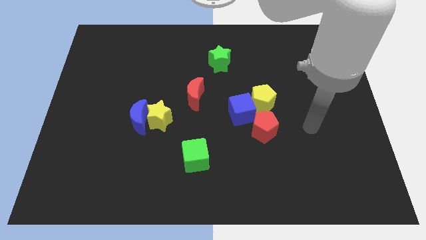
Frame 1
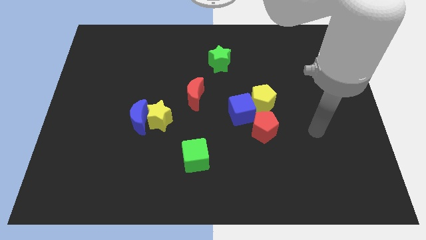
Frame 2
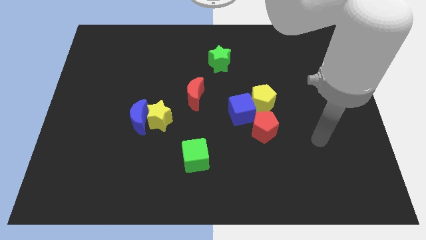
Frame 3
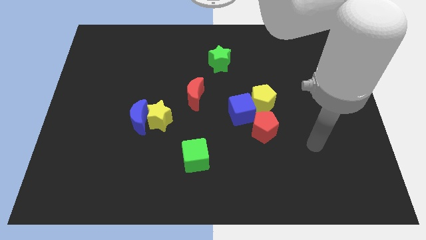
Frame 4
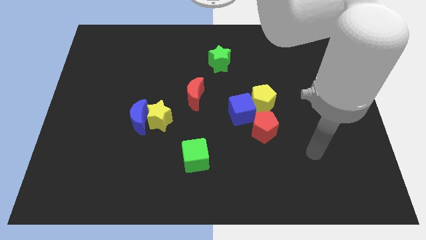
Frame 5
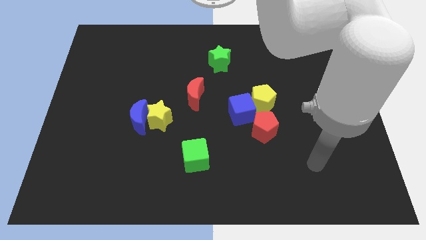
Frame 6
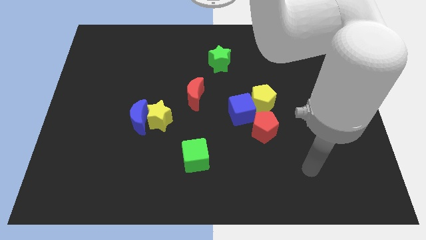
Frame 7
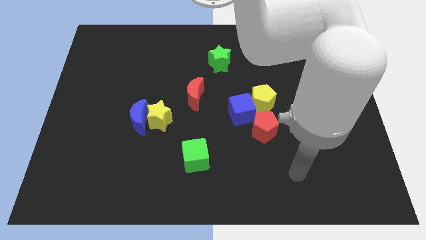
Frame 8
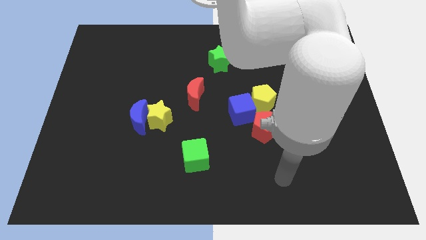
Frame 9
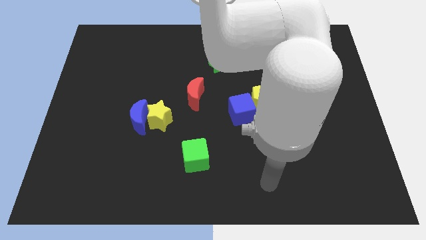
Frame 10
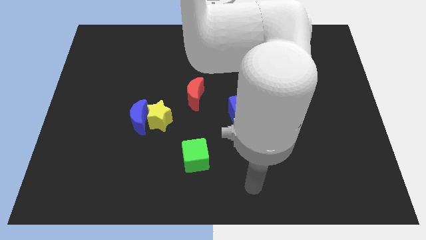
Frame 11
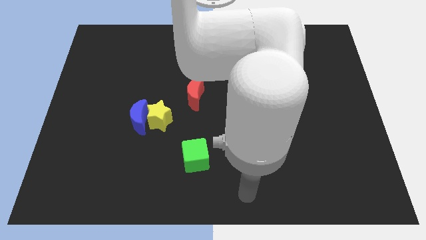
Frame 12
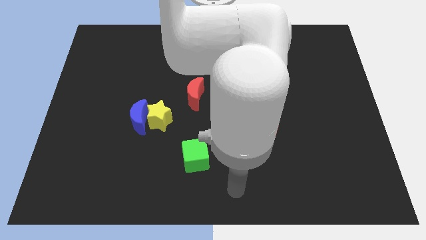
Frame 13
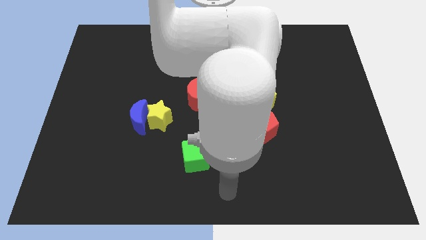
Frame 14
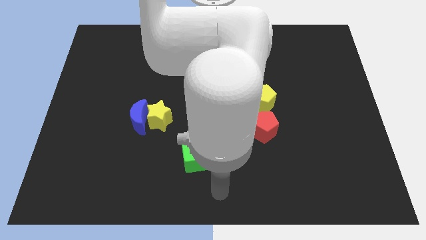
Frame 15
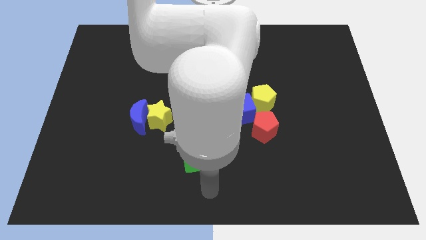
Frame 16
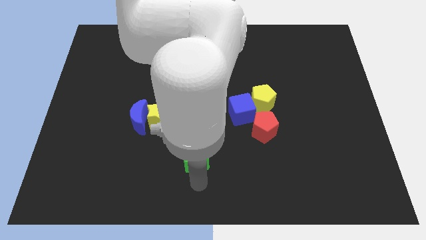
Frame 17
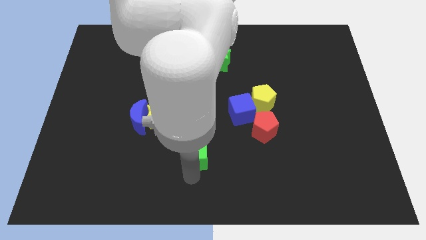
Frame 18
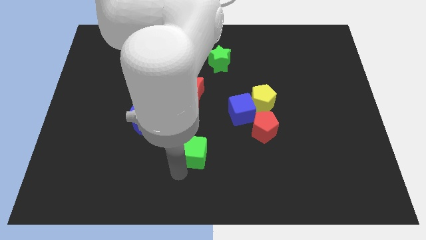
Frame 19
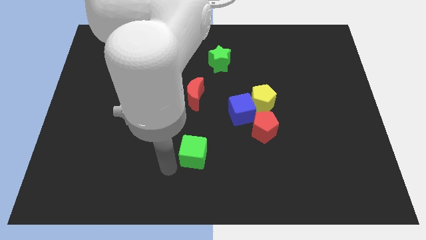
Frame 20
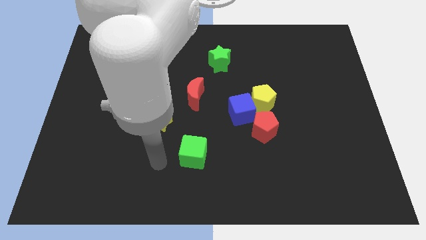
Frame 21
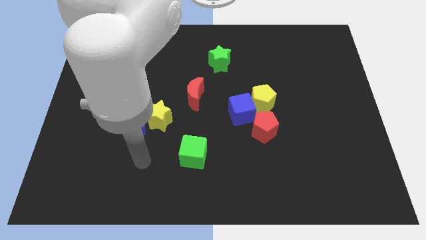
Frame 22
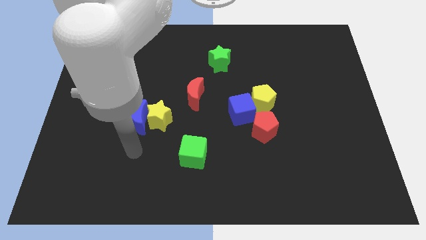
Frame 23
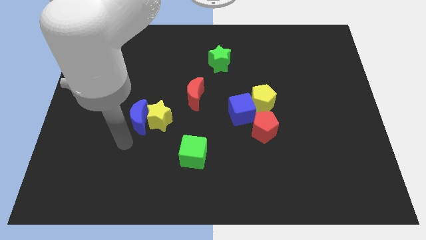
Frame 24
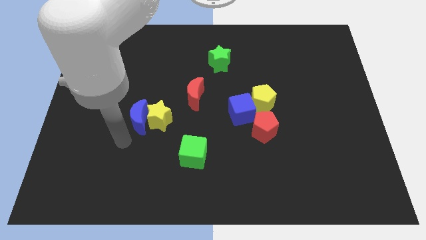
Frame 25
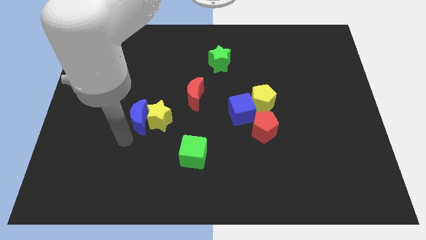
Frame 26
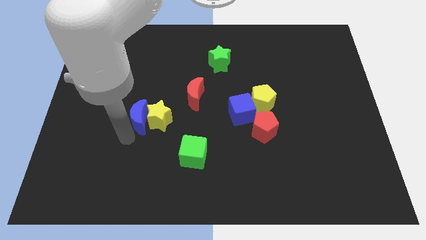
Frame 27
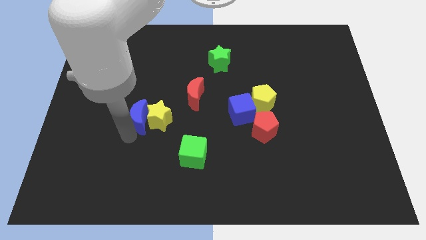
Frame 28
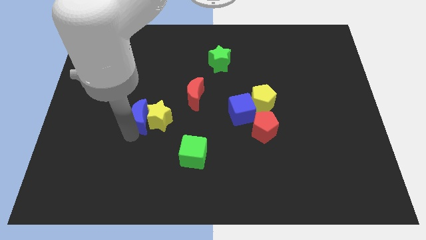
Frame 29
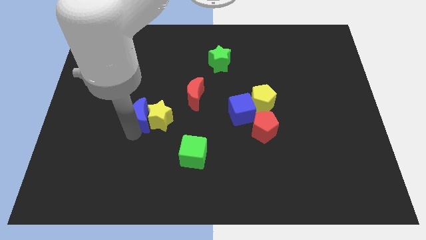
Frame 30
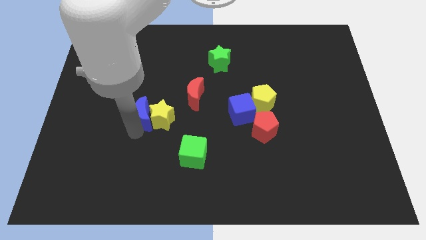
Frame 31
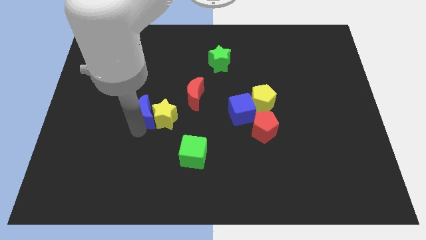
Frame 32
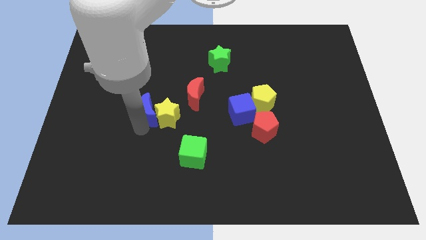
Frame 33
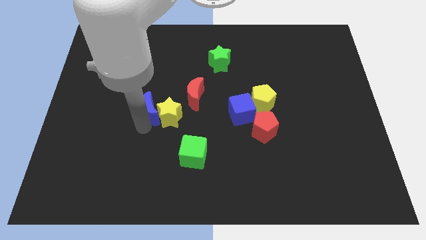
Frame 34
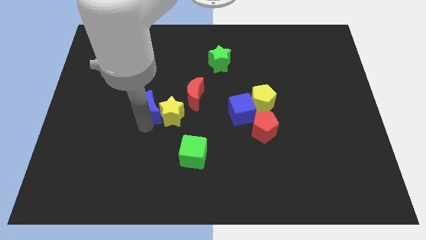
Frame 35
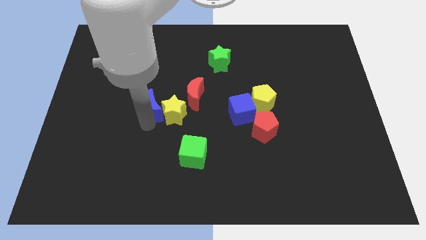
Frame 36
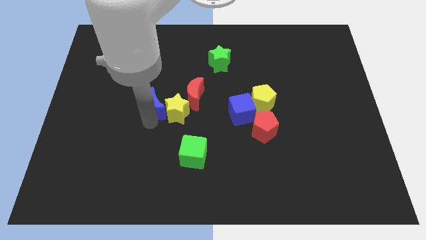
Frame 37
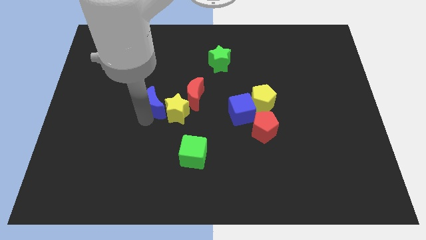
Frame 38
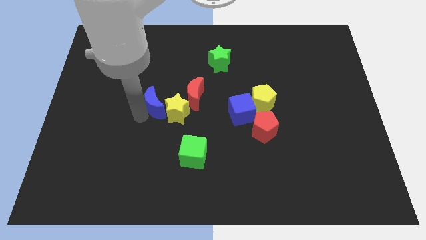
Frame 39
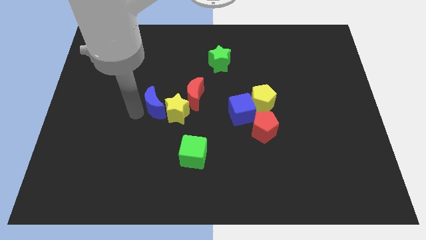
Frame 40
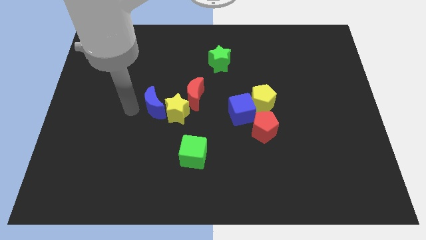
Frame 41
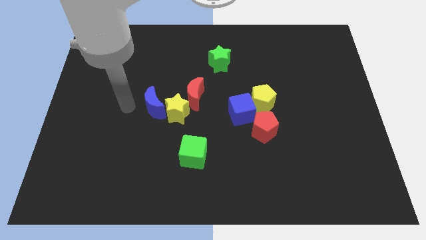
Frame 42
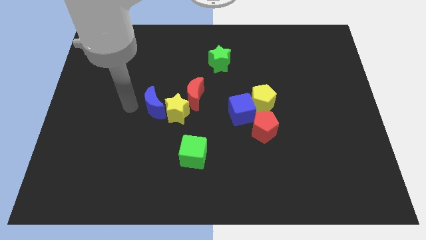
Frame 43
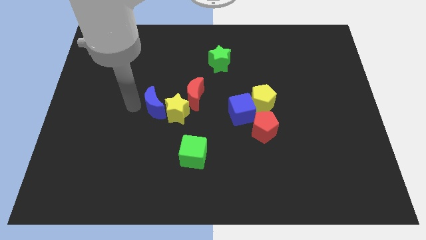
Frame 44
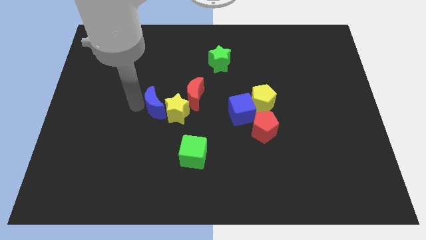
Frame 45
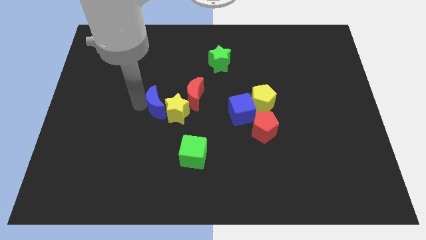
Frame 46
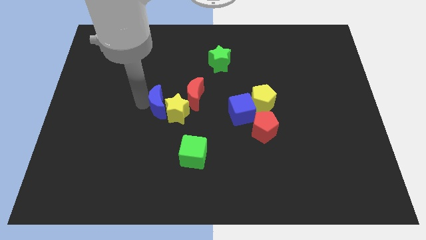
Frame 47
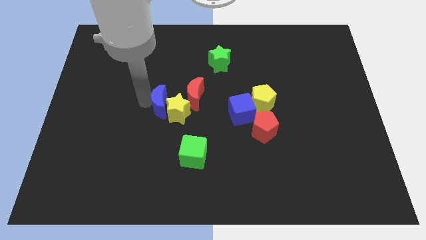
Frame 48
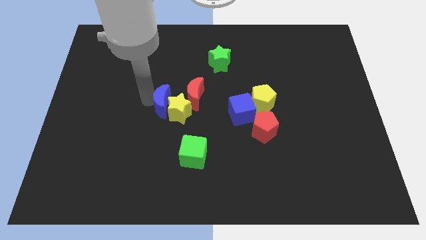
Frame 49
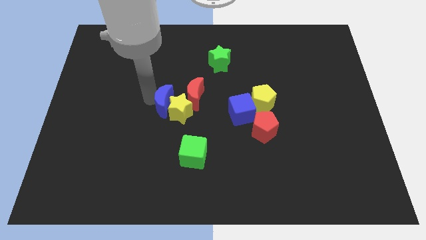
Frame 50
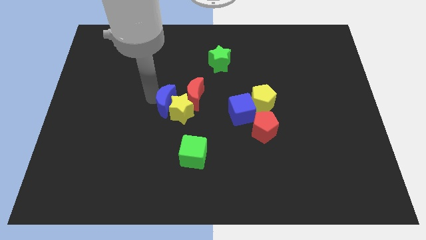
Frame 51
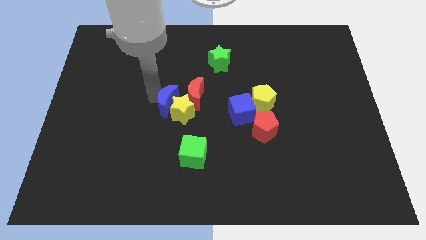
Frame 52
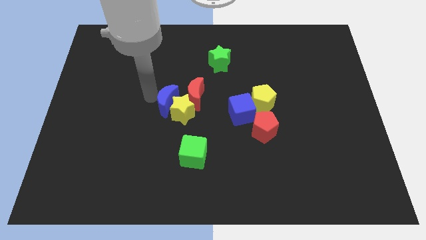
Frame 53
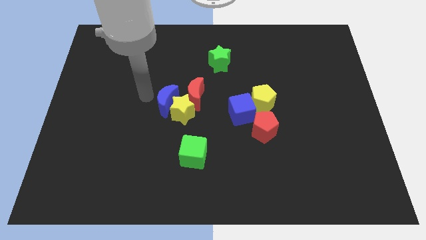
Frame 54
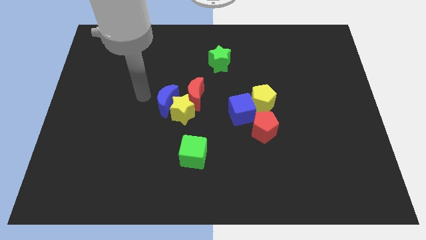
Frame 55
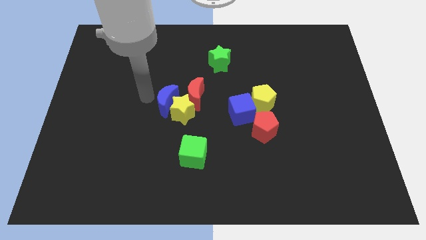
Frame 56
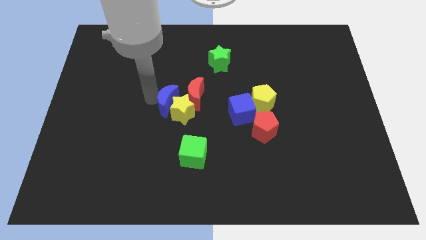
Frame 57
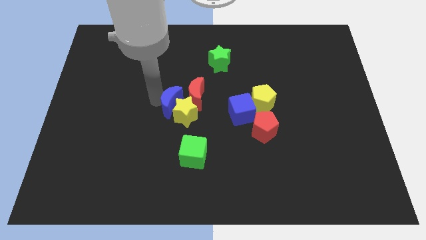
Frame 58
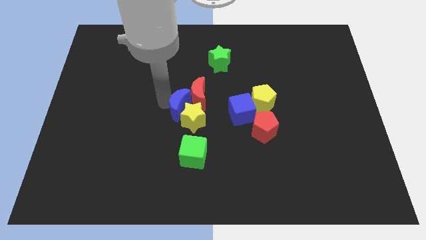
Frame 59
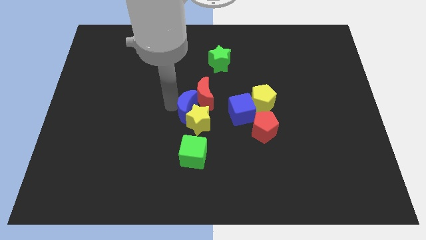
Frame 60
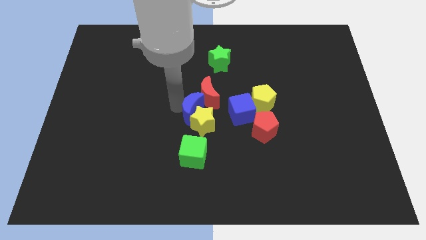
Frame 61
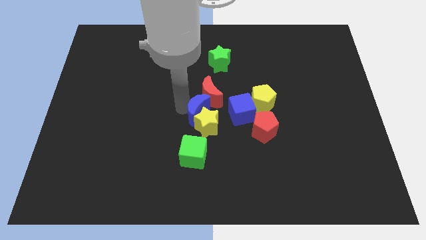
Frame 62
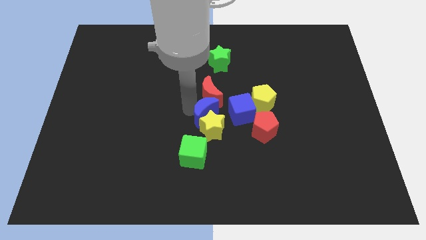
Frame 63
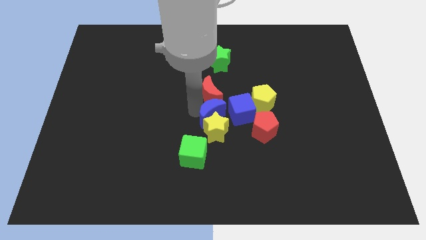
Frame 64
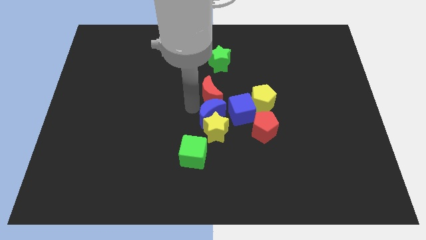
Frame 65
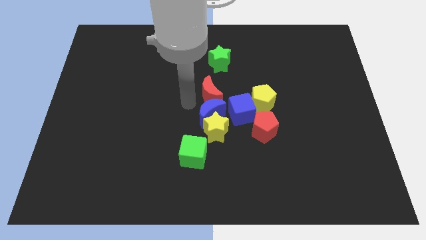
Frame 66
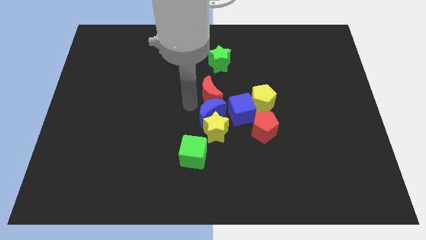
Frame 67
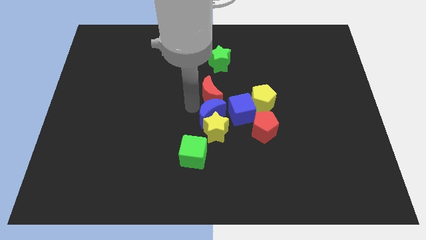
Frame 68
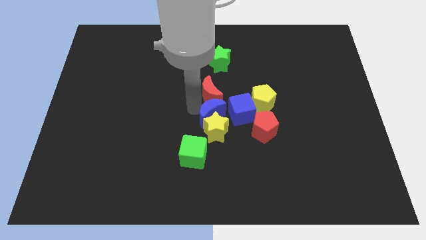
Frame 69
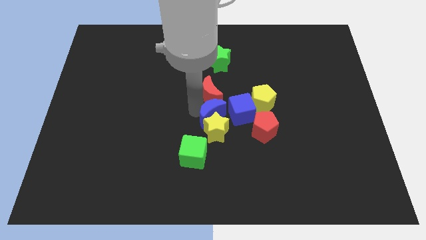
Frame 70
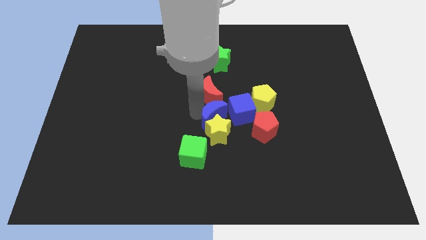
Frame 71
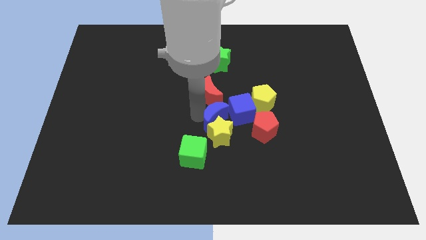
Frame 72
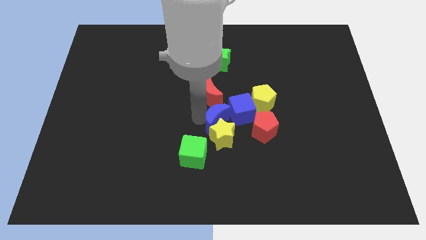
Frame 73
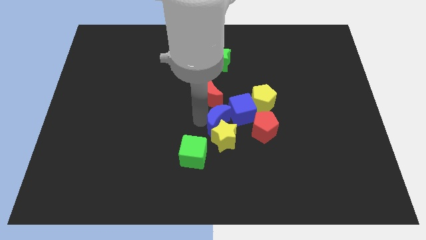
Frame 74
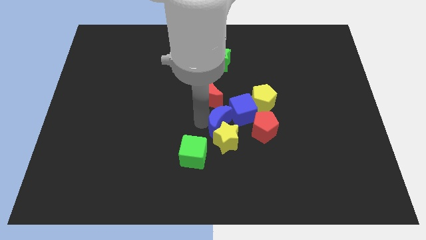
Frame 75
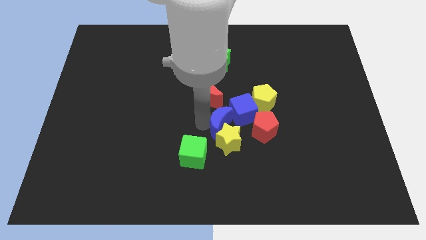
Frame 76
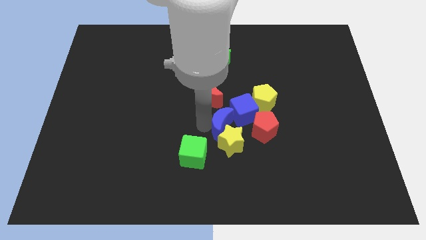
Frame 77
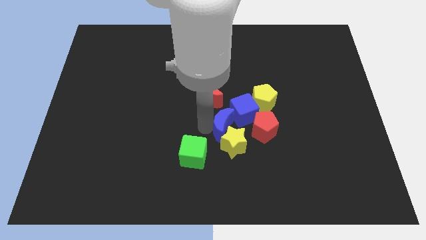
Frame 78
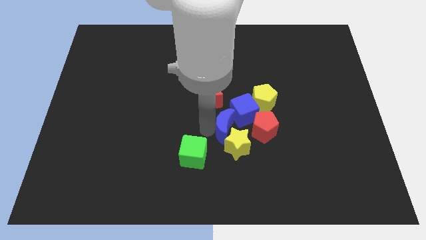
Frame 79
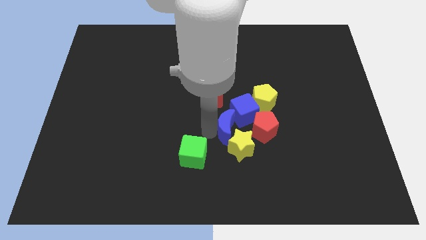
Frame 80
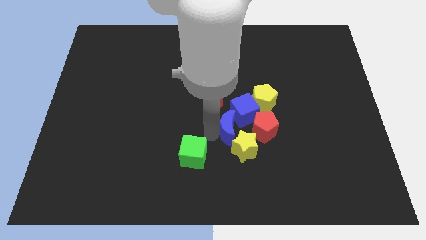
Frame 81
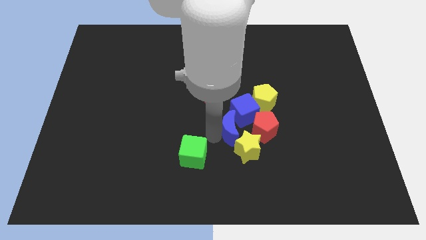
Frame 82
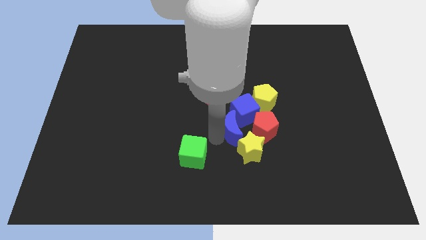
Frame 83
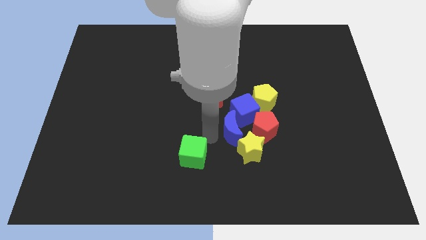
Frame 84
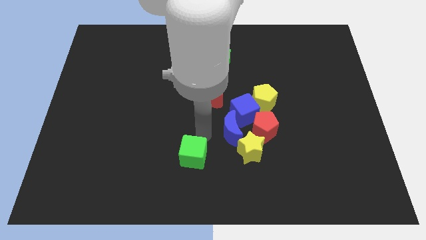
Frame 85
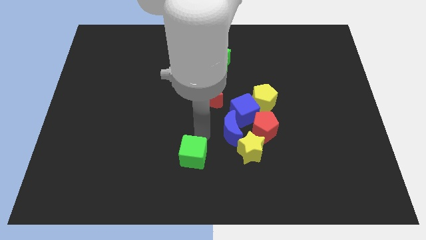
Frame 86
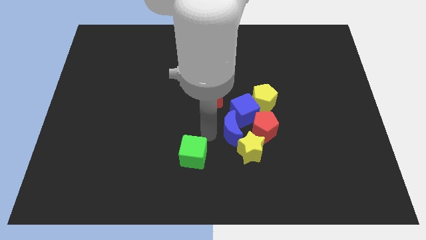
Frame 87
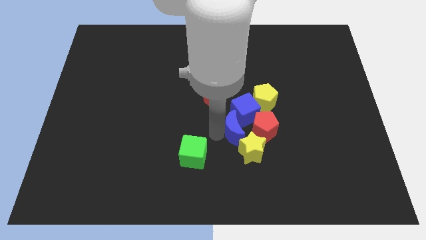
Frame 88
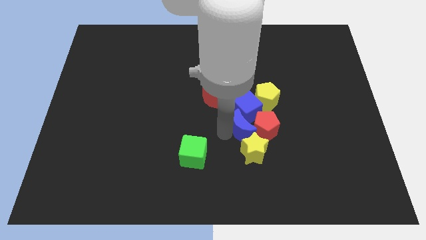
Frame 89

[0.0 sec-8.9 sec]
move the blue moon to the red pentagon
